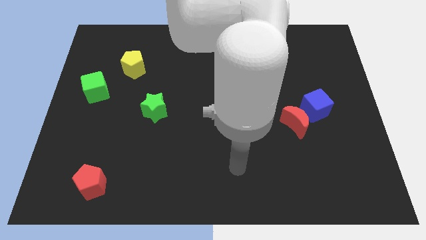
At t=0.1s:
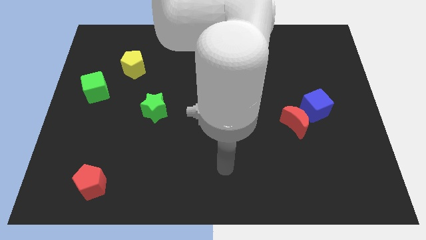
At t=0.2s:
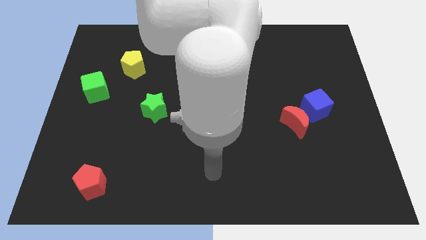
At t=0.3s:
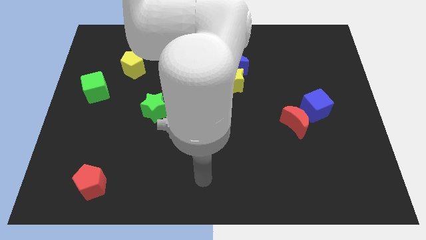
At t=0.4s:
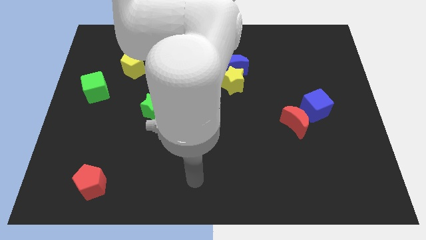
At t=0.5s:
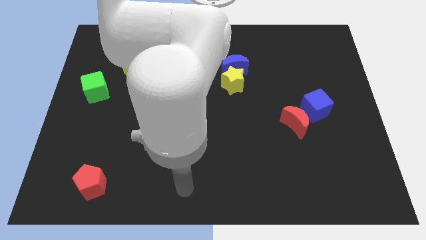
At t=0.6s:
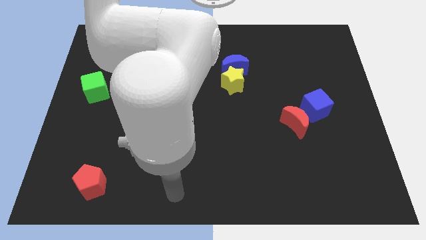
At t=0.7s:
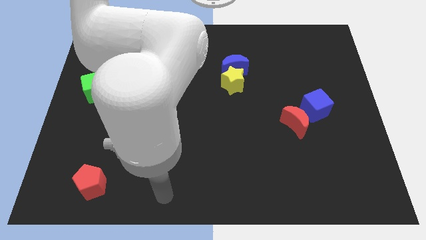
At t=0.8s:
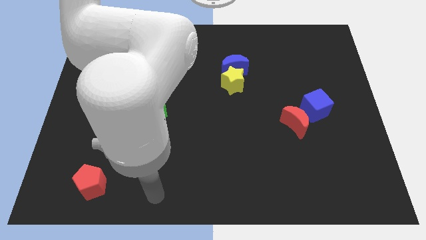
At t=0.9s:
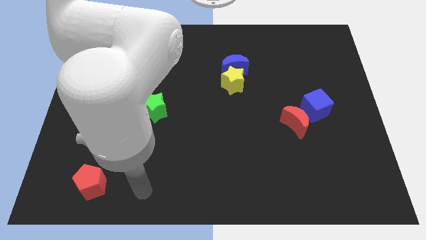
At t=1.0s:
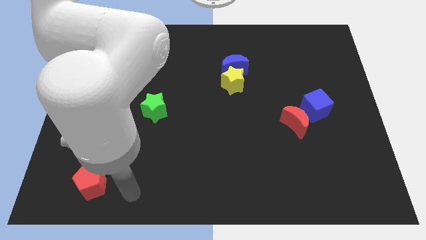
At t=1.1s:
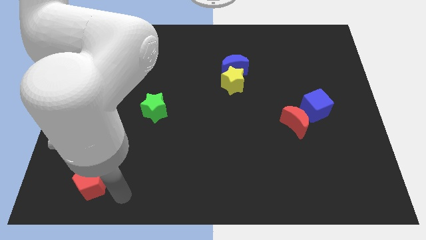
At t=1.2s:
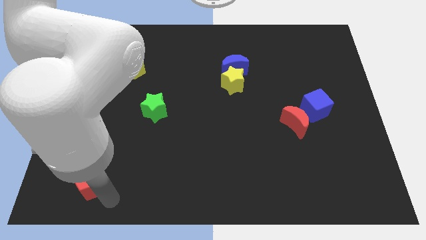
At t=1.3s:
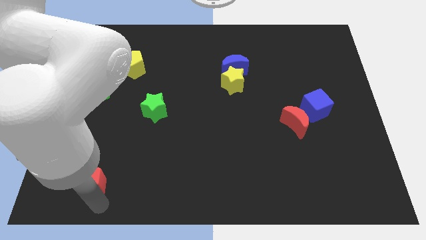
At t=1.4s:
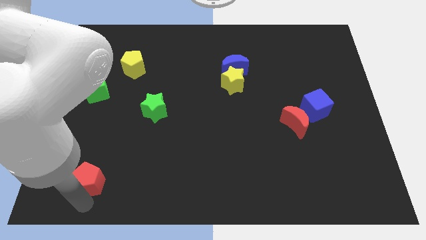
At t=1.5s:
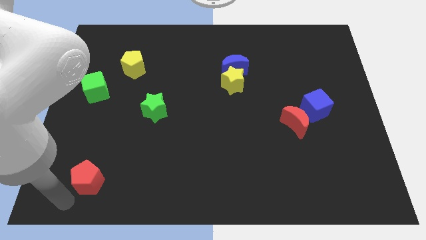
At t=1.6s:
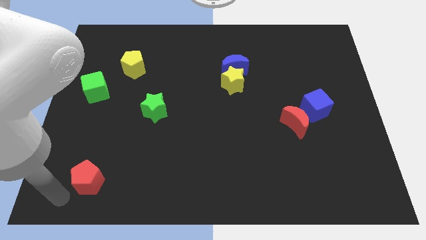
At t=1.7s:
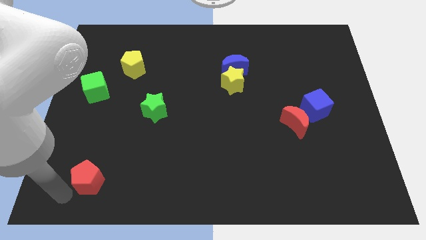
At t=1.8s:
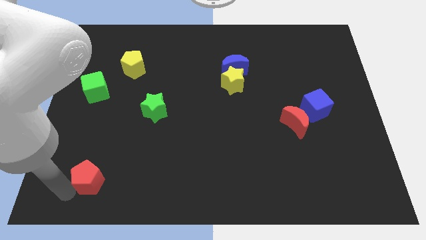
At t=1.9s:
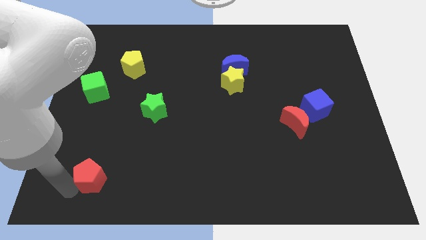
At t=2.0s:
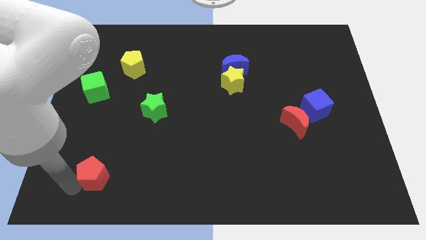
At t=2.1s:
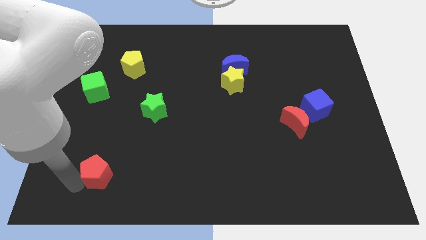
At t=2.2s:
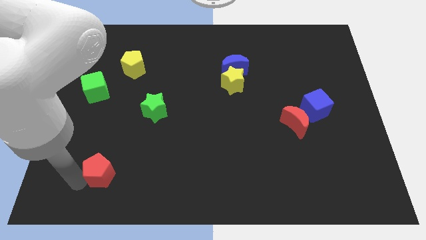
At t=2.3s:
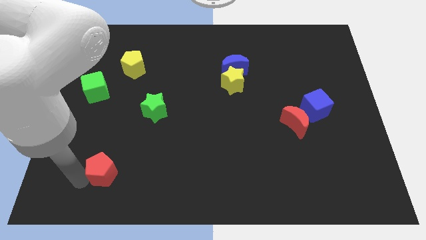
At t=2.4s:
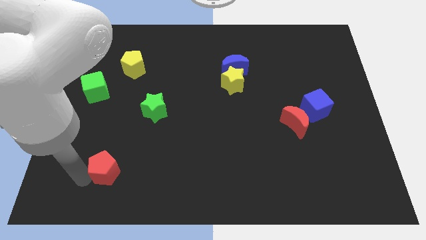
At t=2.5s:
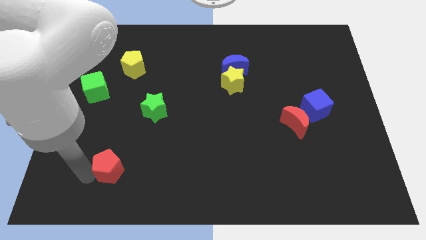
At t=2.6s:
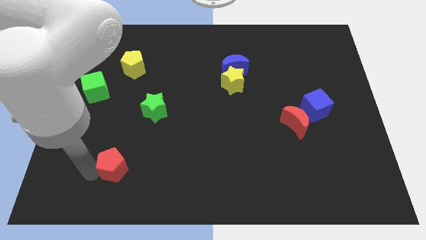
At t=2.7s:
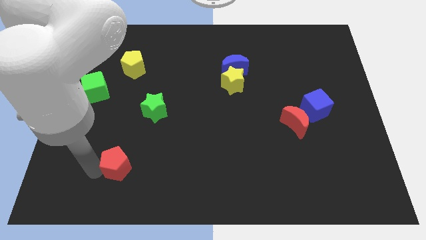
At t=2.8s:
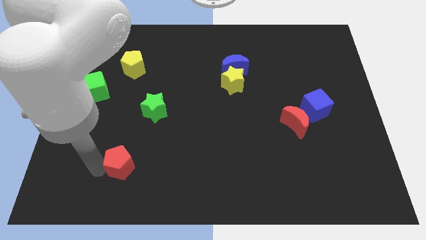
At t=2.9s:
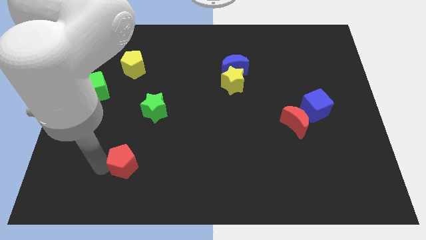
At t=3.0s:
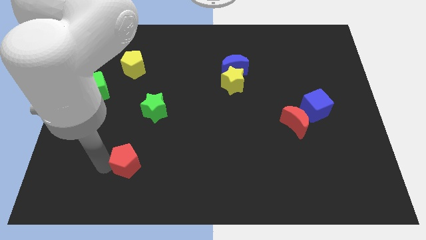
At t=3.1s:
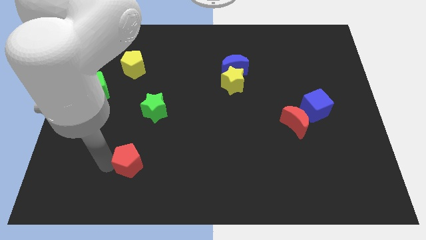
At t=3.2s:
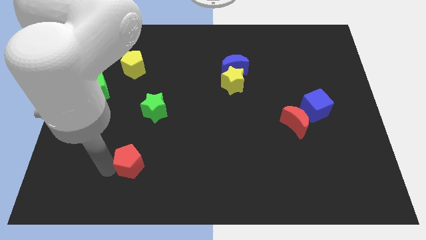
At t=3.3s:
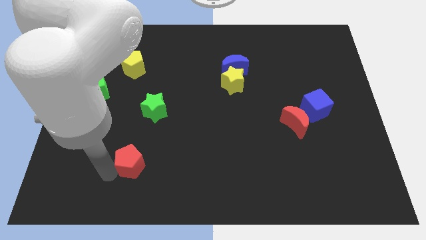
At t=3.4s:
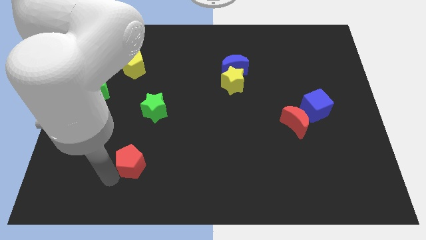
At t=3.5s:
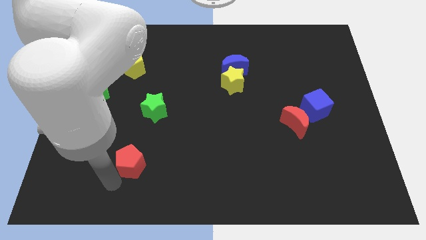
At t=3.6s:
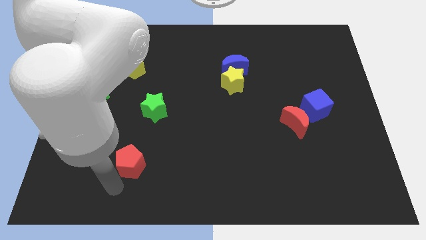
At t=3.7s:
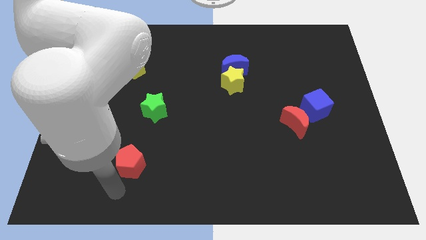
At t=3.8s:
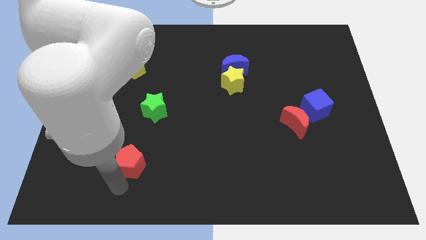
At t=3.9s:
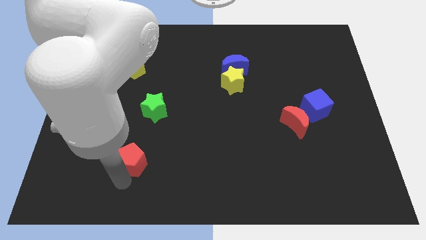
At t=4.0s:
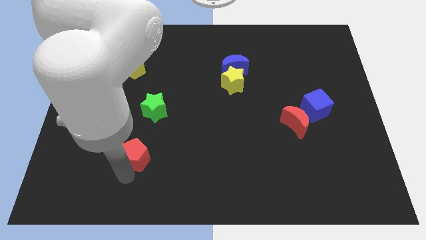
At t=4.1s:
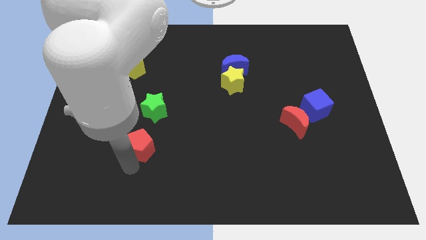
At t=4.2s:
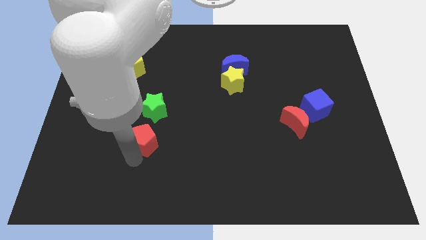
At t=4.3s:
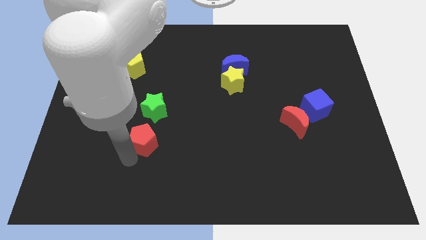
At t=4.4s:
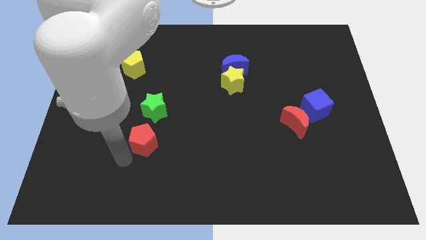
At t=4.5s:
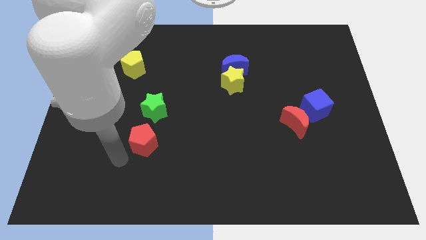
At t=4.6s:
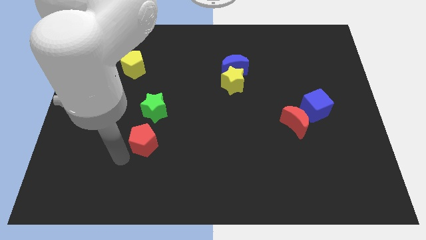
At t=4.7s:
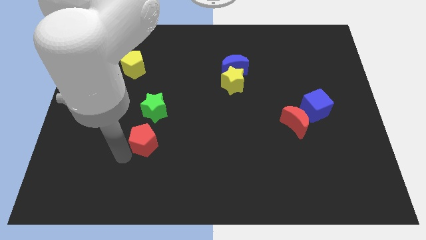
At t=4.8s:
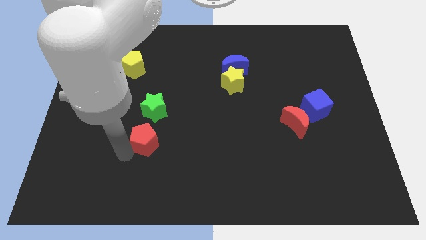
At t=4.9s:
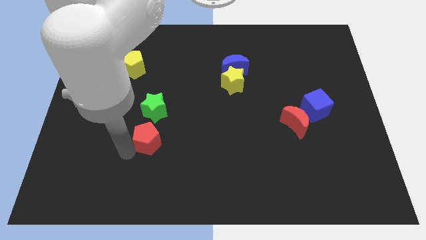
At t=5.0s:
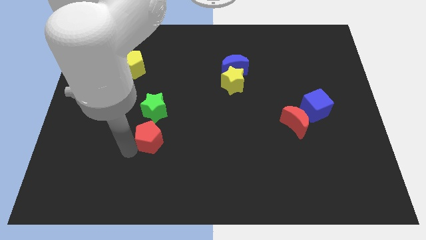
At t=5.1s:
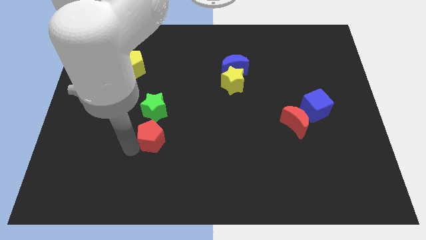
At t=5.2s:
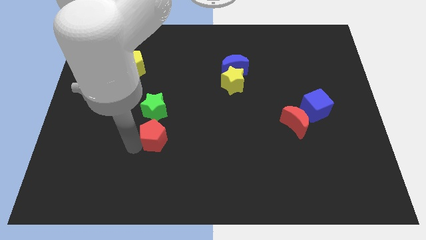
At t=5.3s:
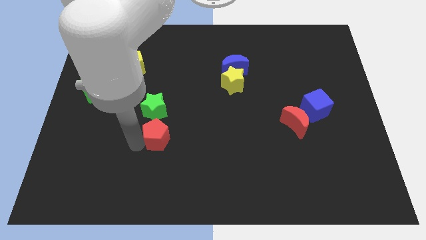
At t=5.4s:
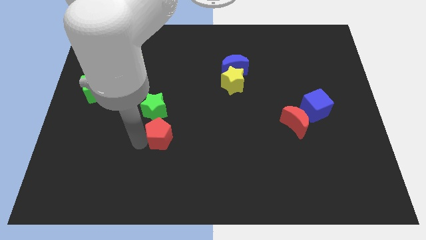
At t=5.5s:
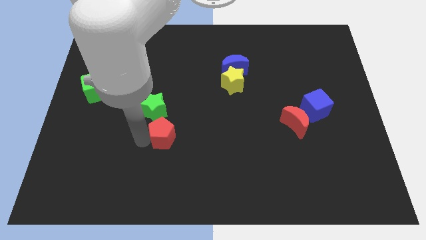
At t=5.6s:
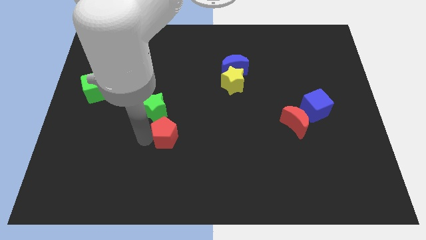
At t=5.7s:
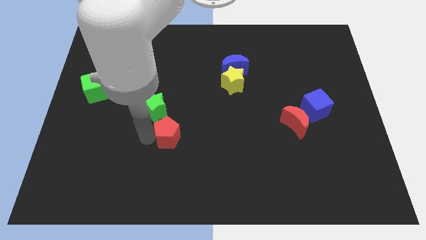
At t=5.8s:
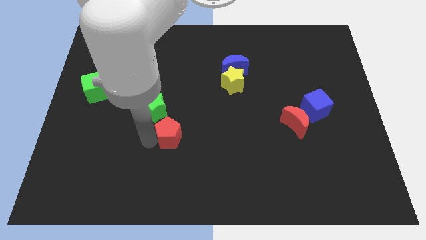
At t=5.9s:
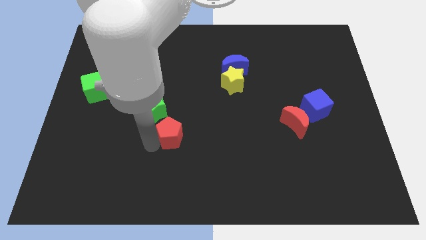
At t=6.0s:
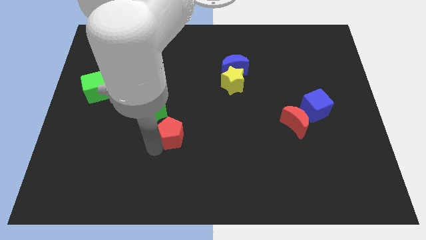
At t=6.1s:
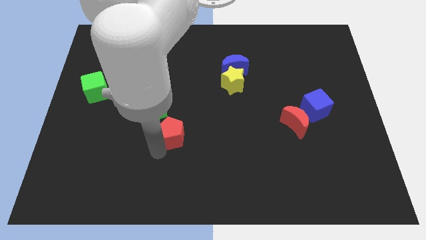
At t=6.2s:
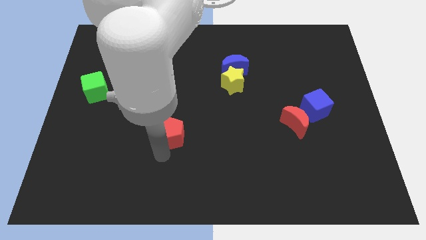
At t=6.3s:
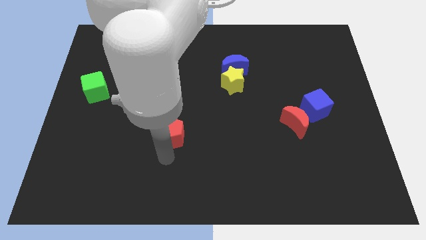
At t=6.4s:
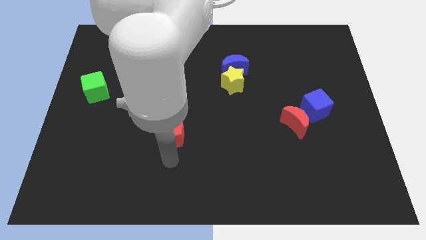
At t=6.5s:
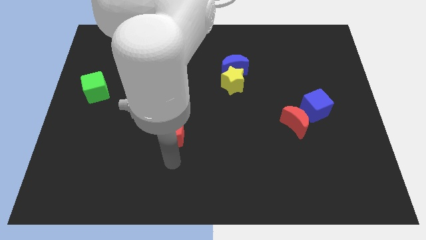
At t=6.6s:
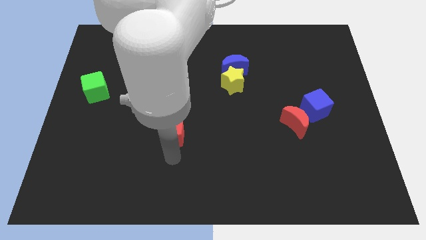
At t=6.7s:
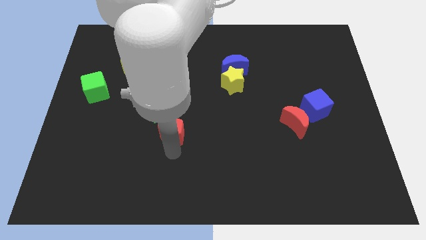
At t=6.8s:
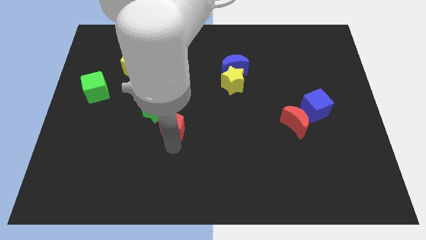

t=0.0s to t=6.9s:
push the red pentagon upwards and then to the right

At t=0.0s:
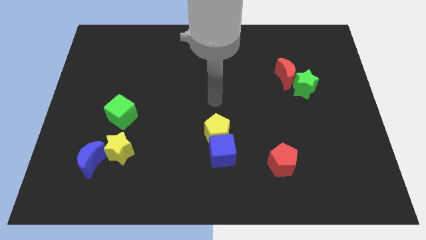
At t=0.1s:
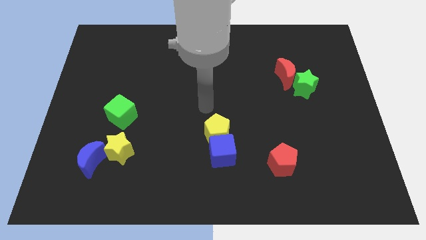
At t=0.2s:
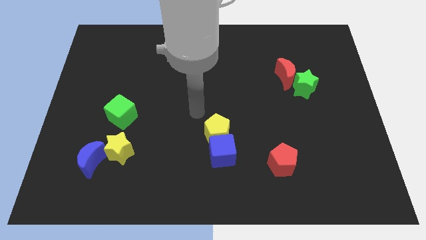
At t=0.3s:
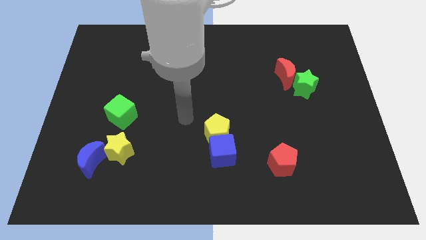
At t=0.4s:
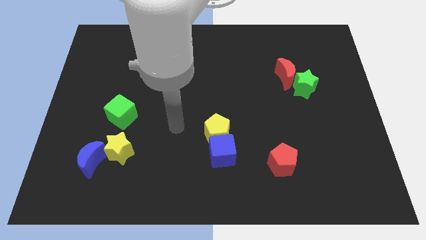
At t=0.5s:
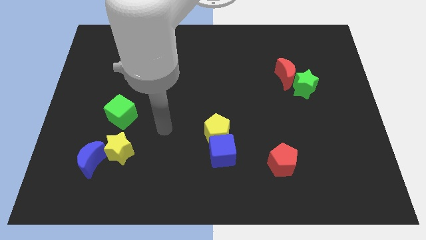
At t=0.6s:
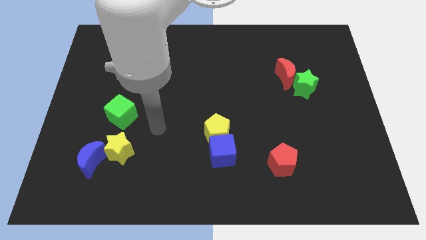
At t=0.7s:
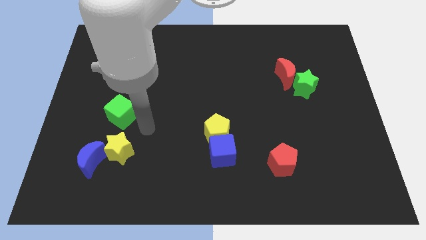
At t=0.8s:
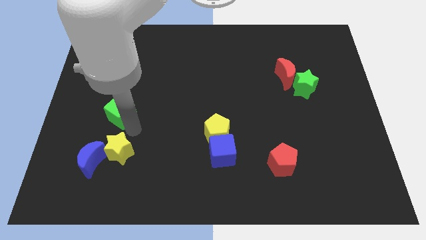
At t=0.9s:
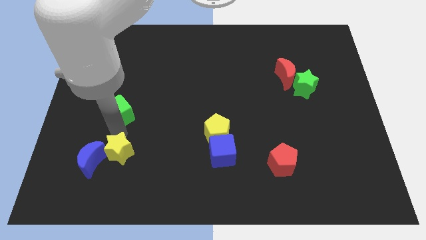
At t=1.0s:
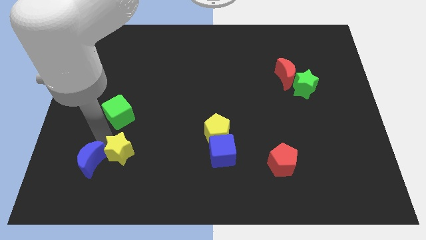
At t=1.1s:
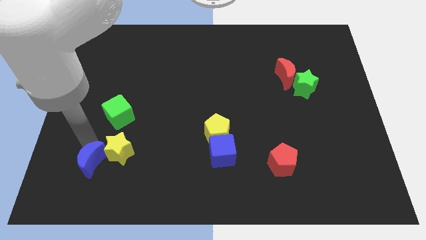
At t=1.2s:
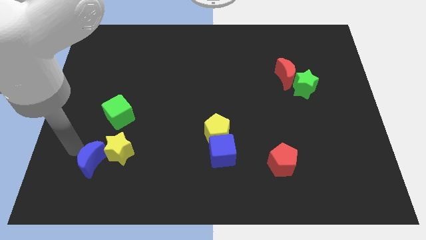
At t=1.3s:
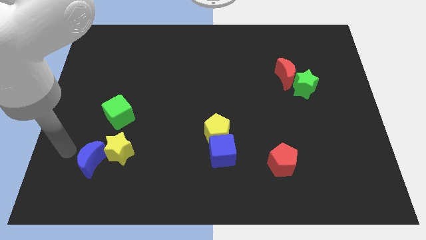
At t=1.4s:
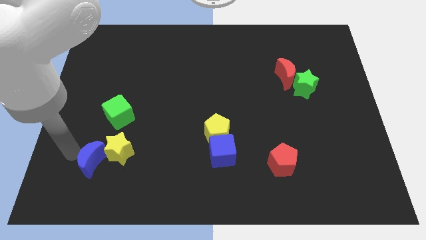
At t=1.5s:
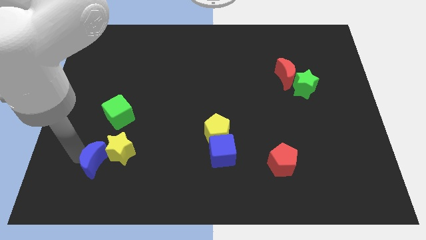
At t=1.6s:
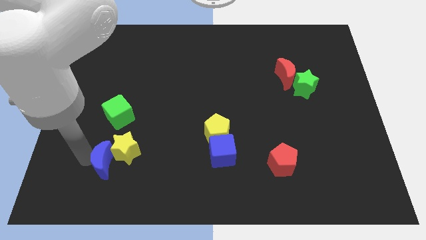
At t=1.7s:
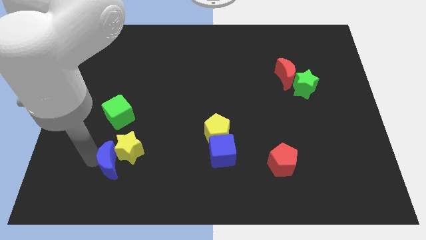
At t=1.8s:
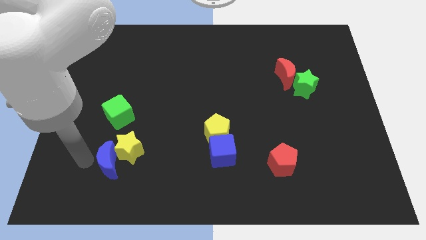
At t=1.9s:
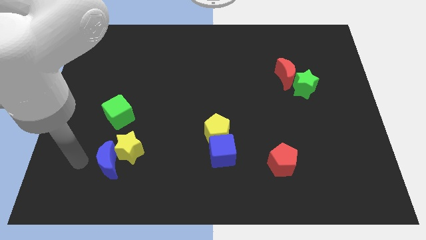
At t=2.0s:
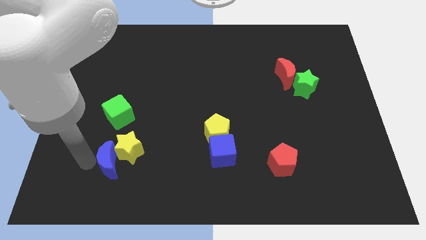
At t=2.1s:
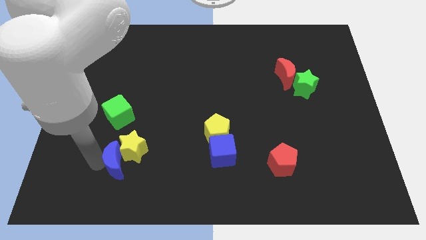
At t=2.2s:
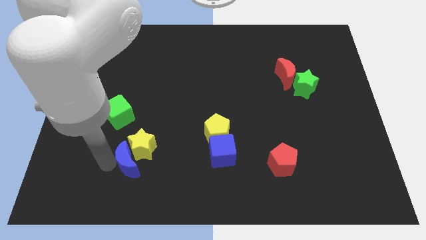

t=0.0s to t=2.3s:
slide the blue moon right a little
